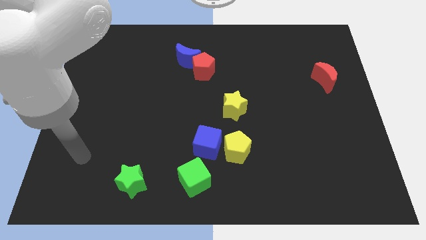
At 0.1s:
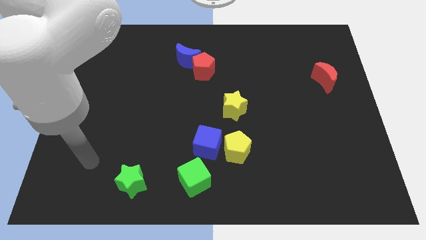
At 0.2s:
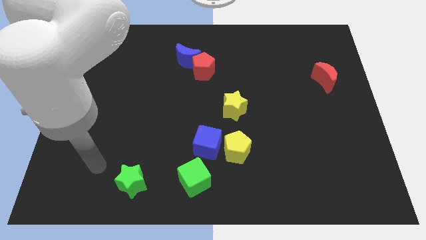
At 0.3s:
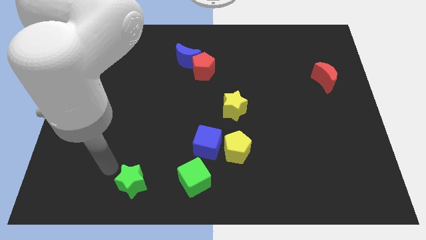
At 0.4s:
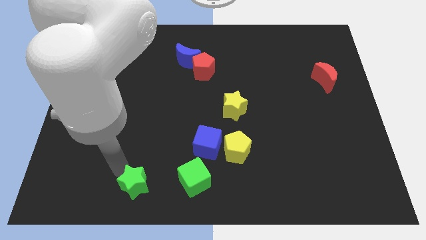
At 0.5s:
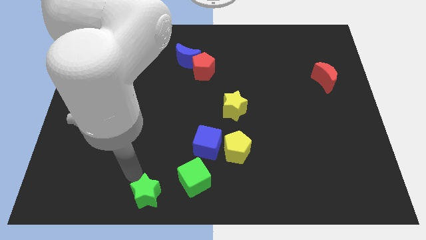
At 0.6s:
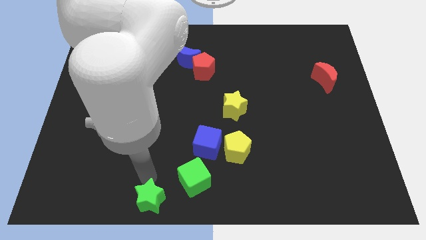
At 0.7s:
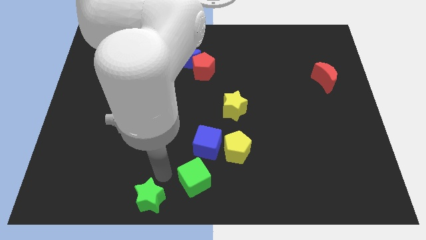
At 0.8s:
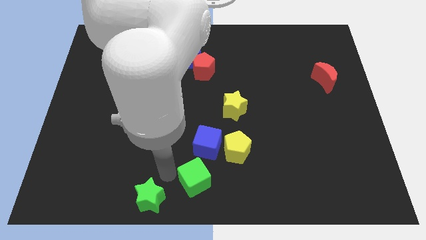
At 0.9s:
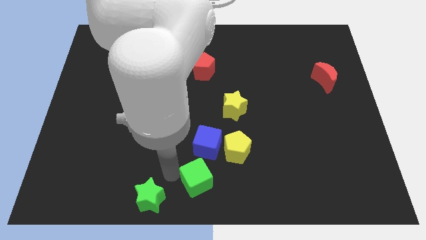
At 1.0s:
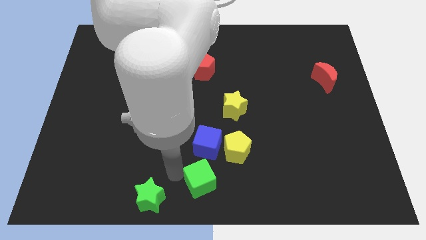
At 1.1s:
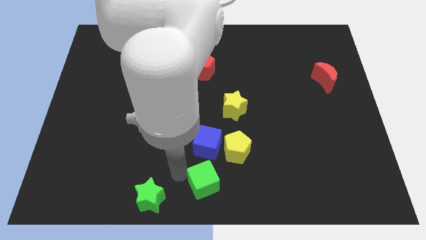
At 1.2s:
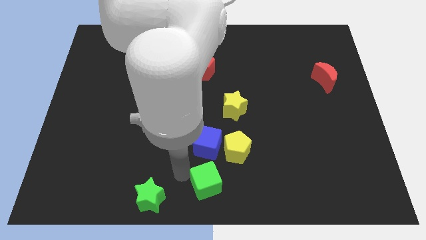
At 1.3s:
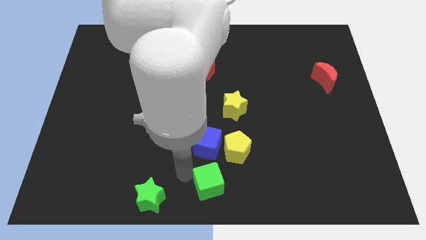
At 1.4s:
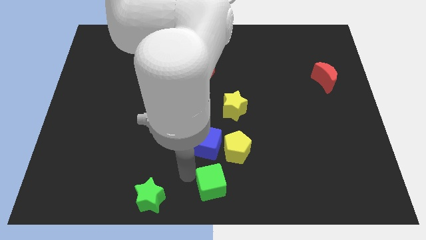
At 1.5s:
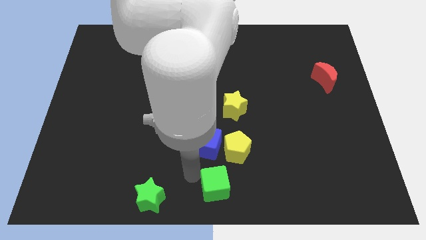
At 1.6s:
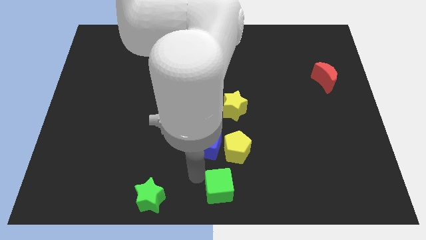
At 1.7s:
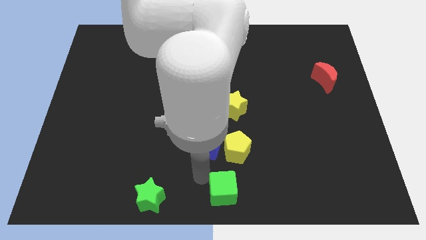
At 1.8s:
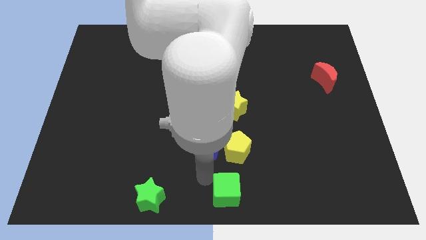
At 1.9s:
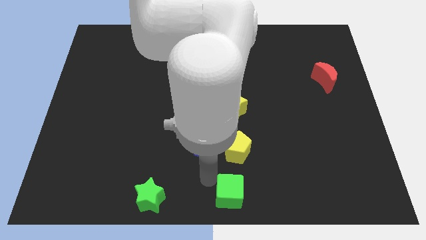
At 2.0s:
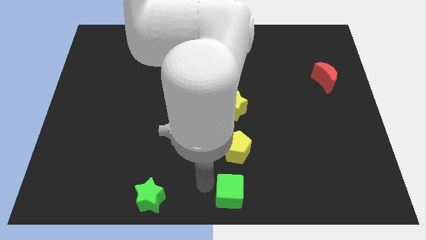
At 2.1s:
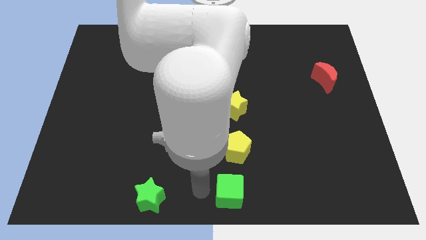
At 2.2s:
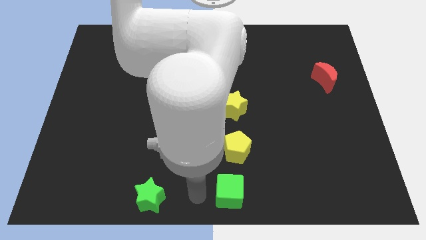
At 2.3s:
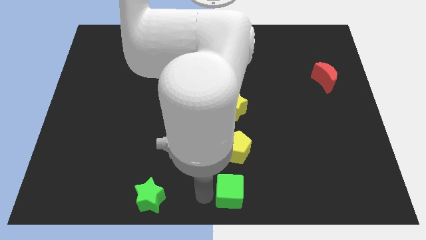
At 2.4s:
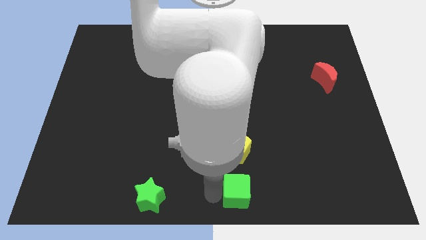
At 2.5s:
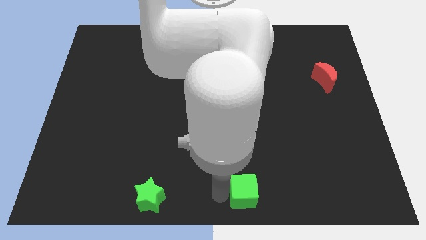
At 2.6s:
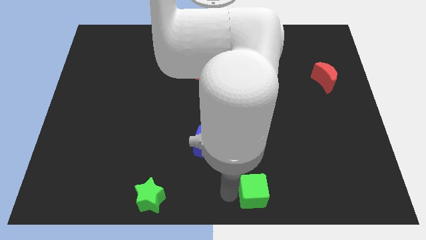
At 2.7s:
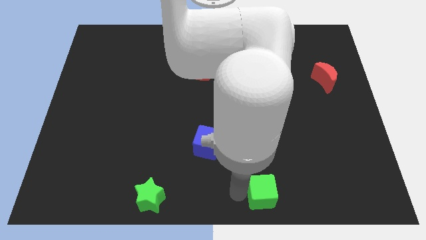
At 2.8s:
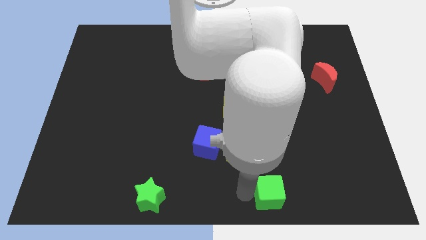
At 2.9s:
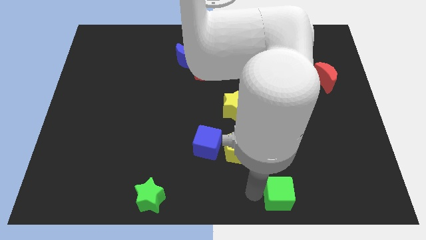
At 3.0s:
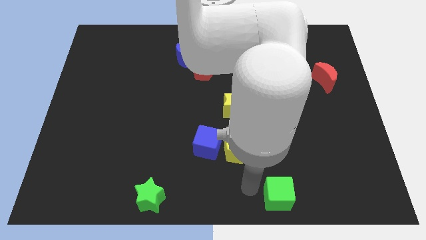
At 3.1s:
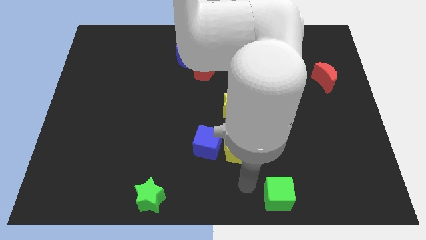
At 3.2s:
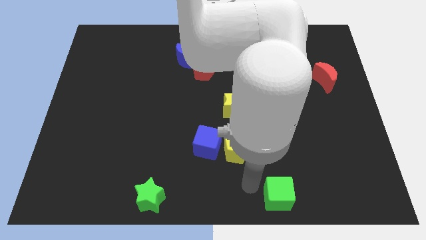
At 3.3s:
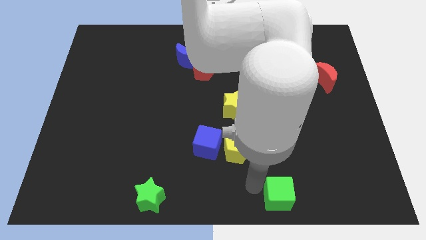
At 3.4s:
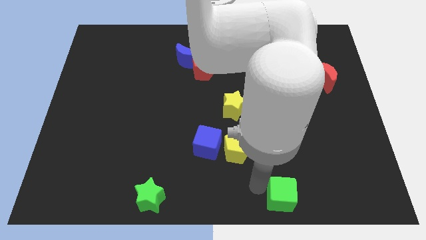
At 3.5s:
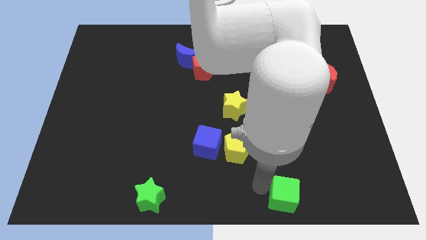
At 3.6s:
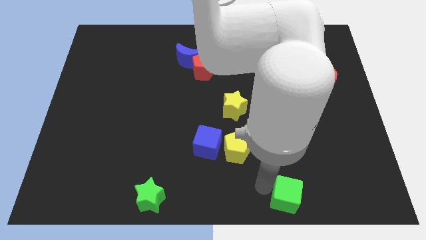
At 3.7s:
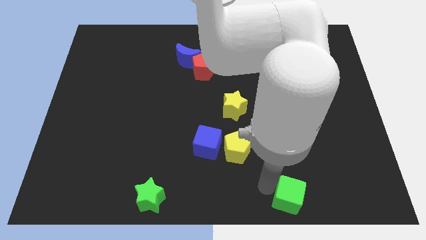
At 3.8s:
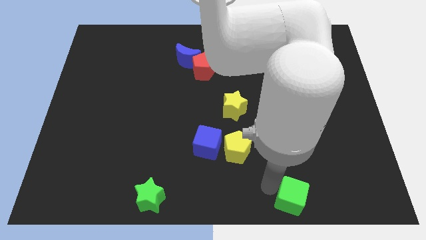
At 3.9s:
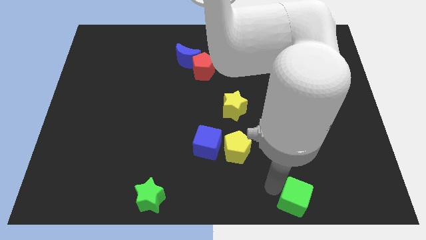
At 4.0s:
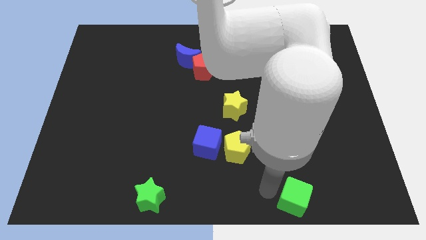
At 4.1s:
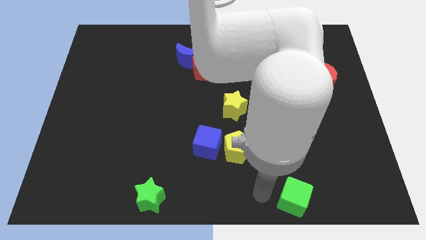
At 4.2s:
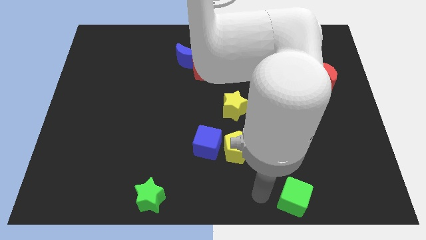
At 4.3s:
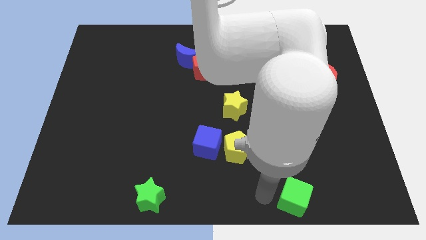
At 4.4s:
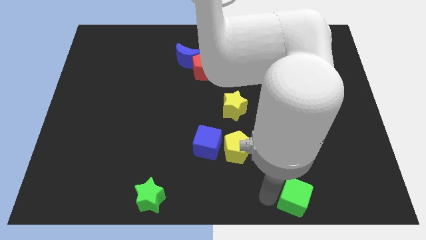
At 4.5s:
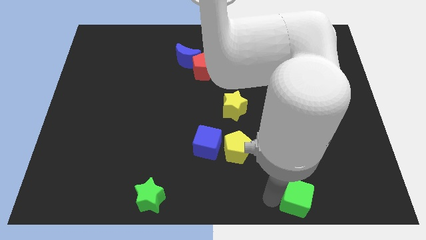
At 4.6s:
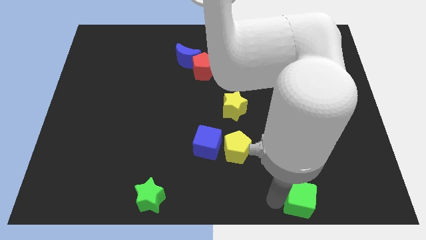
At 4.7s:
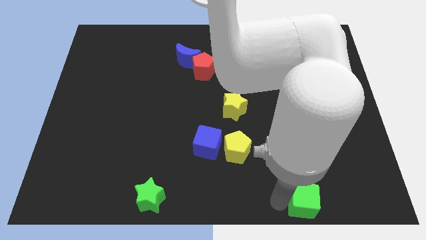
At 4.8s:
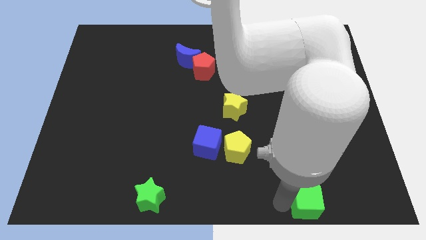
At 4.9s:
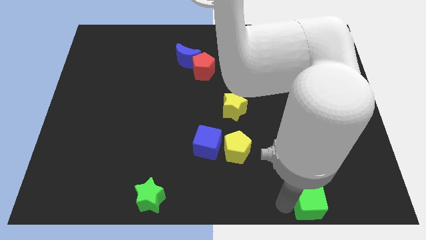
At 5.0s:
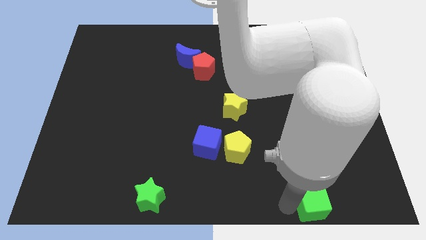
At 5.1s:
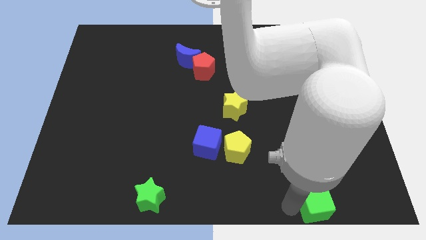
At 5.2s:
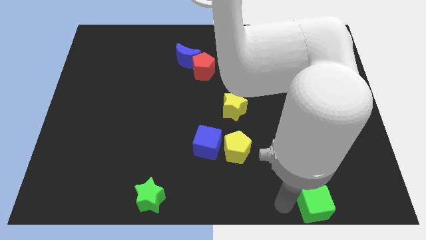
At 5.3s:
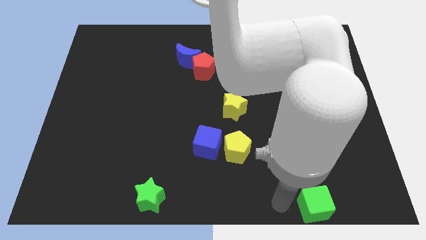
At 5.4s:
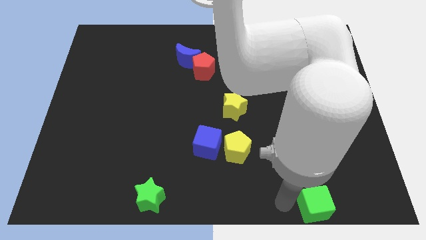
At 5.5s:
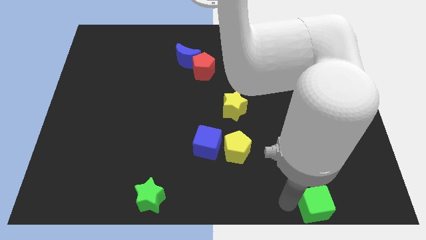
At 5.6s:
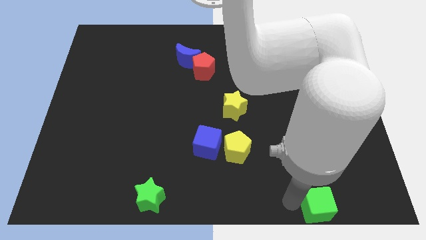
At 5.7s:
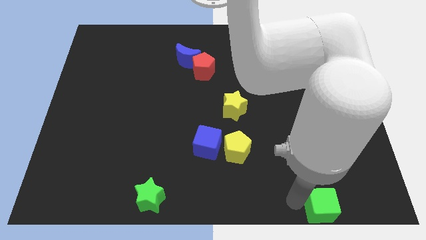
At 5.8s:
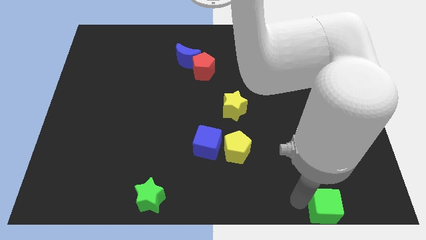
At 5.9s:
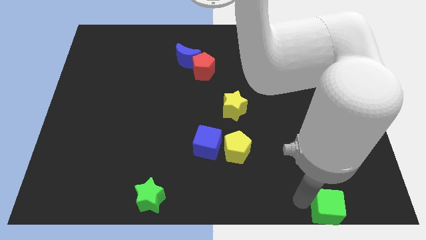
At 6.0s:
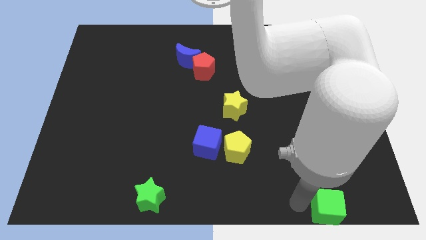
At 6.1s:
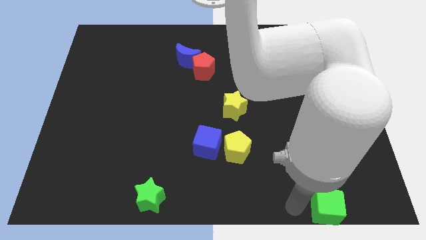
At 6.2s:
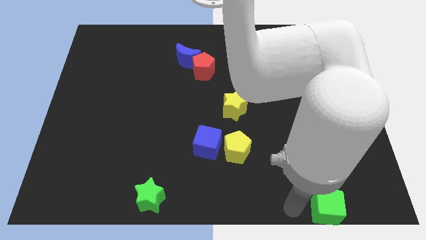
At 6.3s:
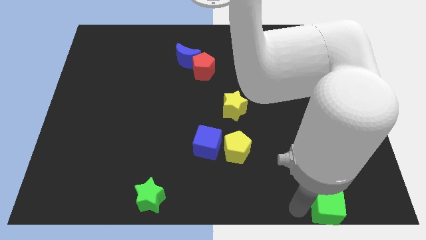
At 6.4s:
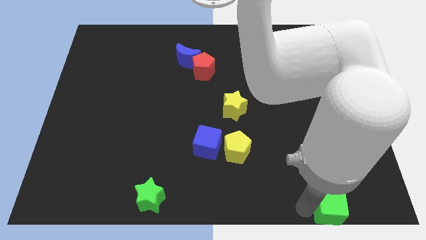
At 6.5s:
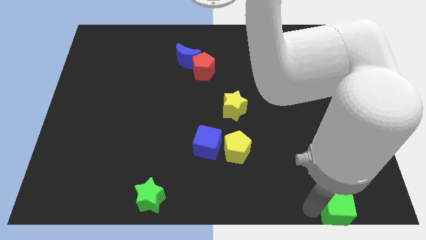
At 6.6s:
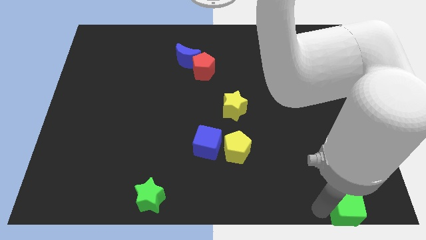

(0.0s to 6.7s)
put the green cube to the lower right corner
